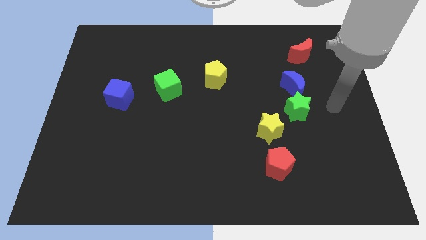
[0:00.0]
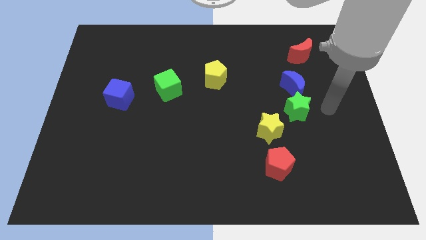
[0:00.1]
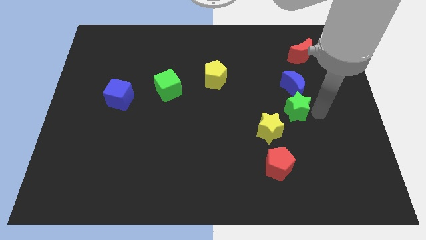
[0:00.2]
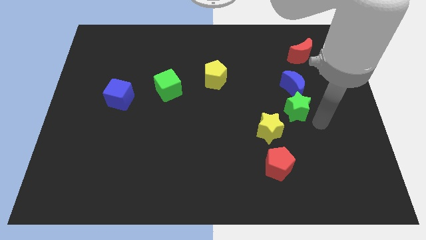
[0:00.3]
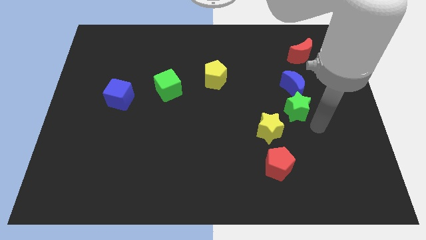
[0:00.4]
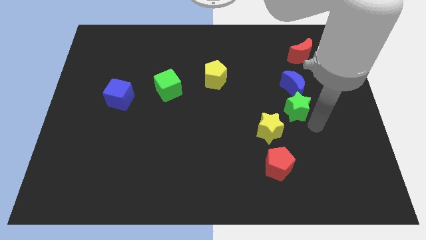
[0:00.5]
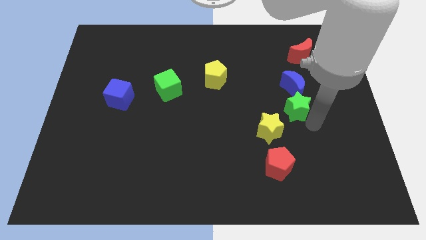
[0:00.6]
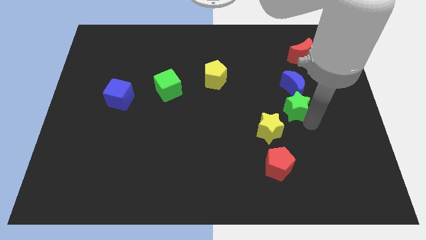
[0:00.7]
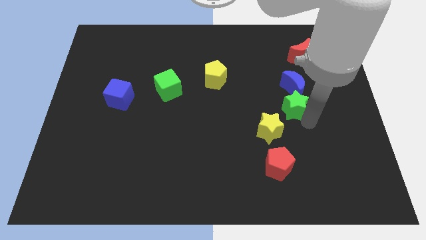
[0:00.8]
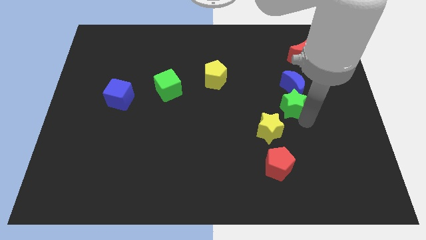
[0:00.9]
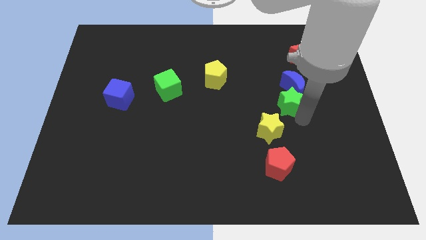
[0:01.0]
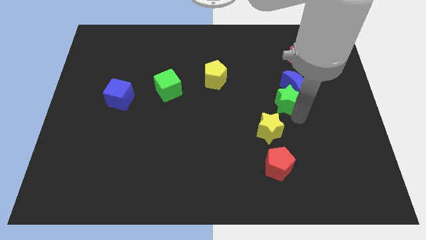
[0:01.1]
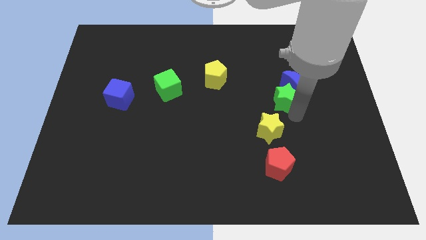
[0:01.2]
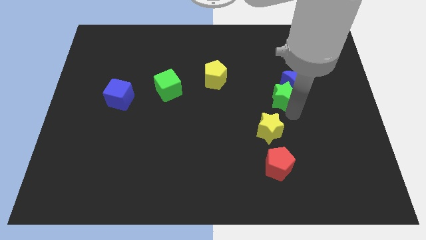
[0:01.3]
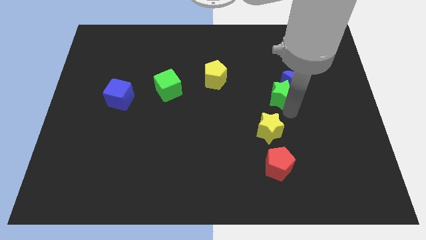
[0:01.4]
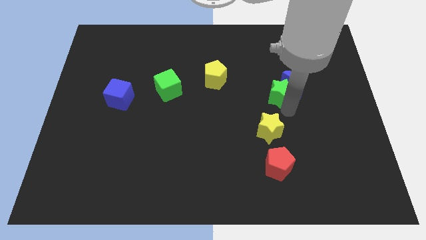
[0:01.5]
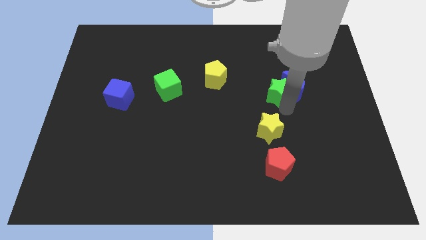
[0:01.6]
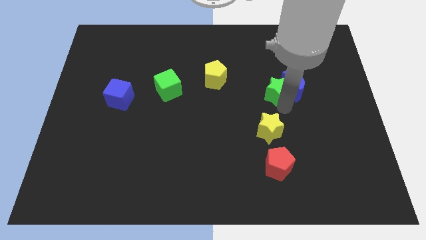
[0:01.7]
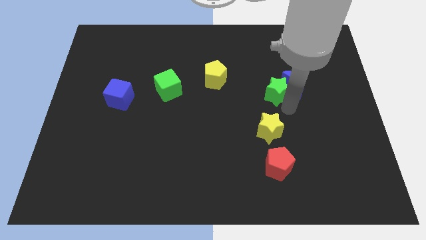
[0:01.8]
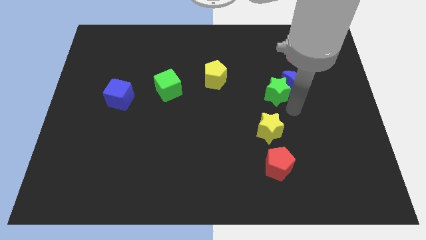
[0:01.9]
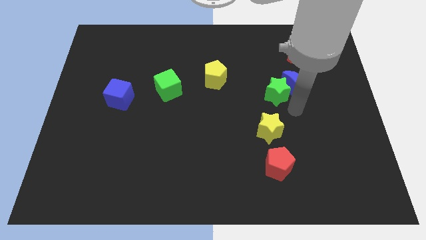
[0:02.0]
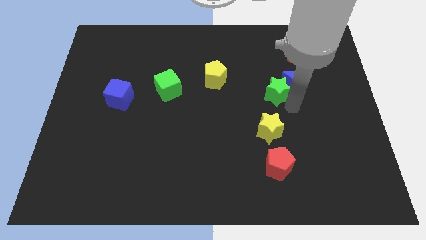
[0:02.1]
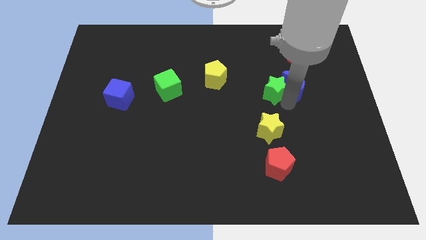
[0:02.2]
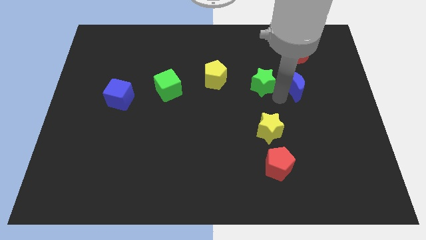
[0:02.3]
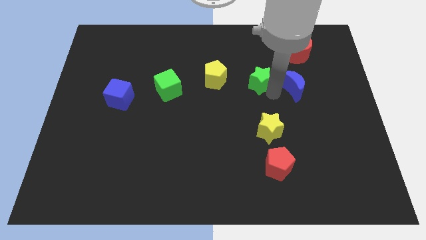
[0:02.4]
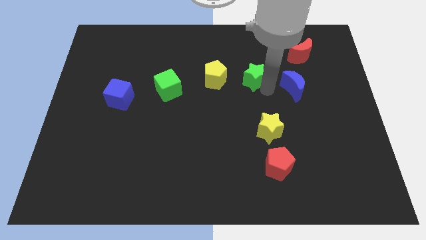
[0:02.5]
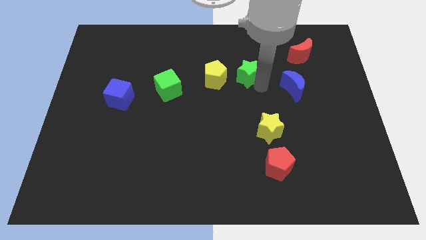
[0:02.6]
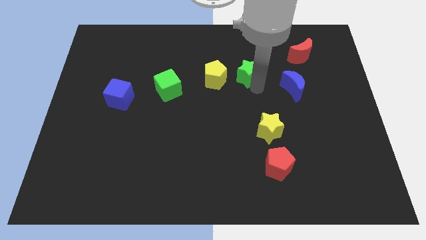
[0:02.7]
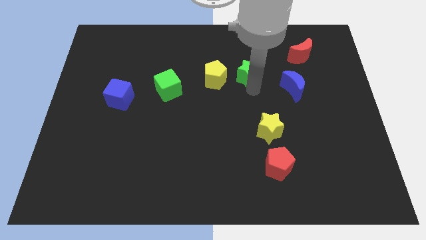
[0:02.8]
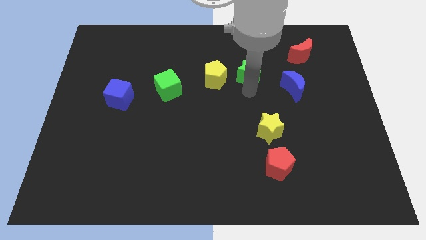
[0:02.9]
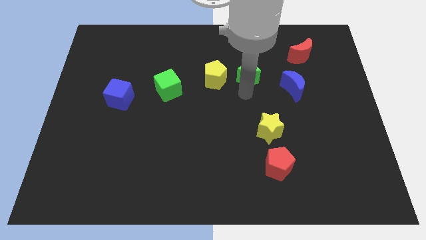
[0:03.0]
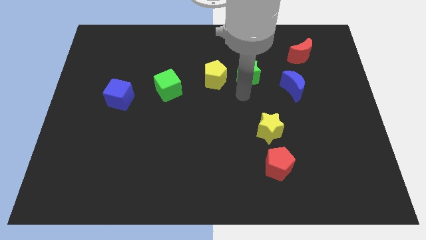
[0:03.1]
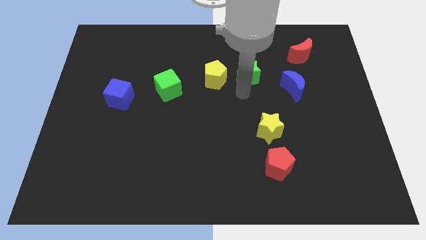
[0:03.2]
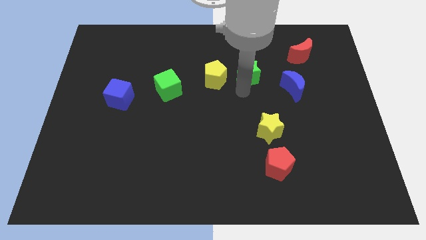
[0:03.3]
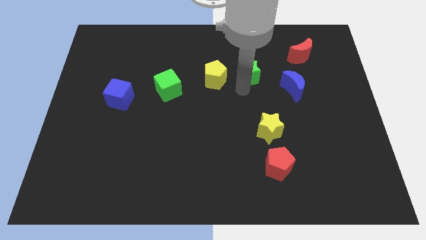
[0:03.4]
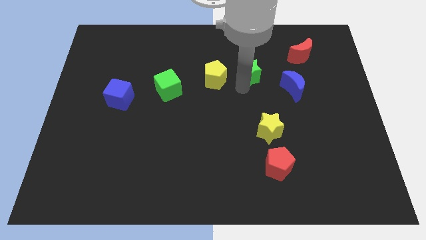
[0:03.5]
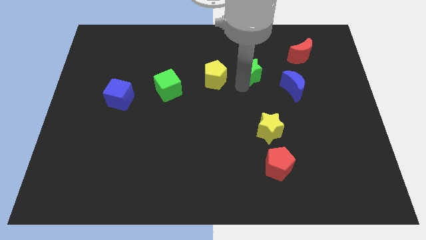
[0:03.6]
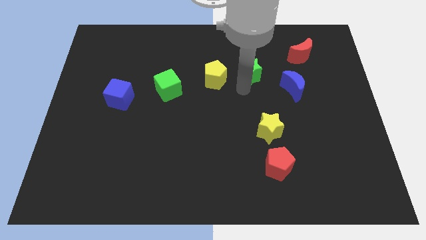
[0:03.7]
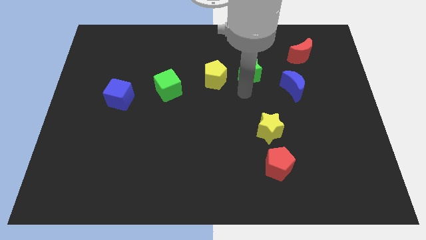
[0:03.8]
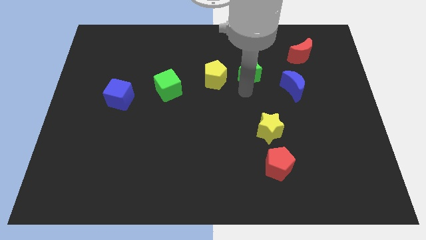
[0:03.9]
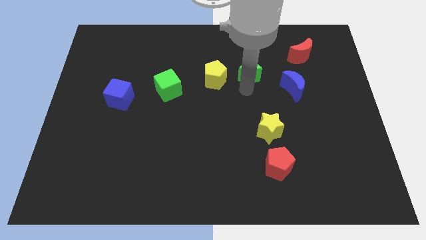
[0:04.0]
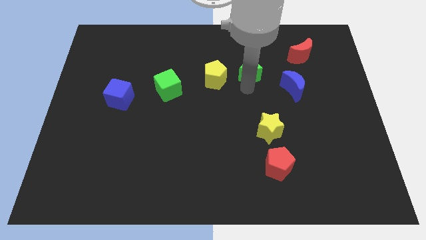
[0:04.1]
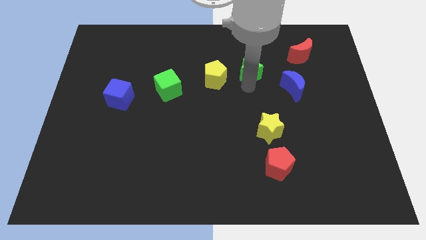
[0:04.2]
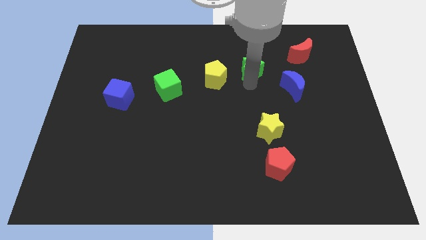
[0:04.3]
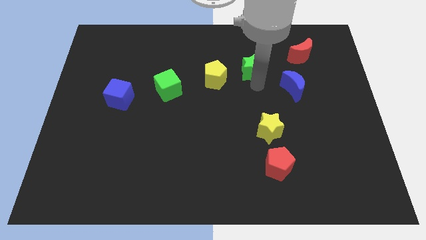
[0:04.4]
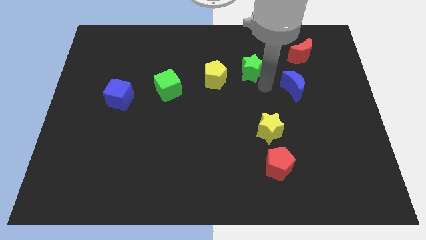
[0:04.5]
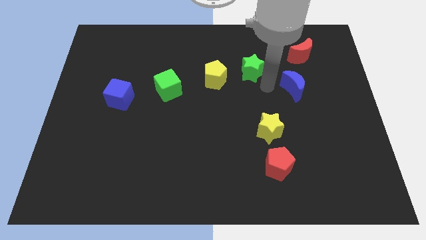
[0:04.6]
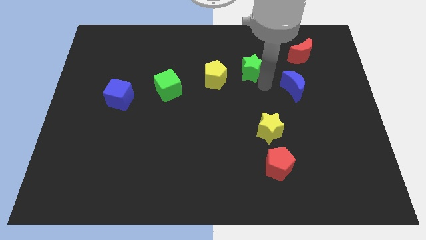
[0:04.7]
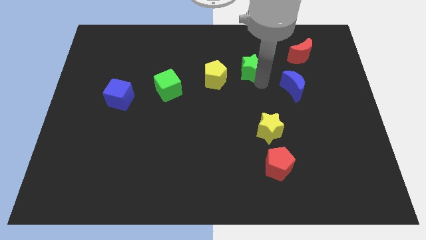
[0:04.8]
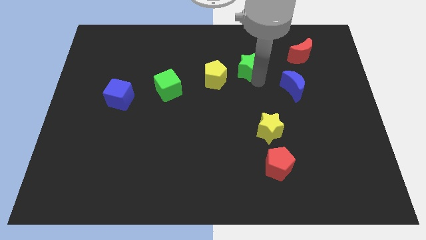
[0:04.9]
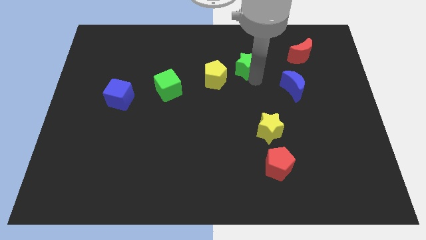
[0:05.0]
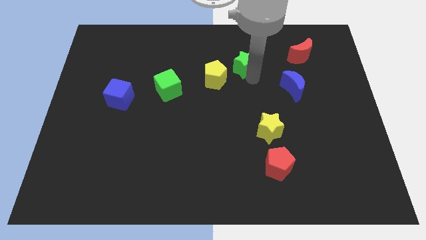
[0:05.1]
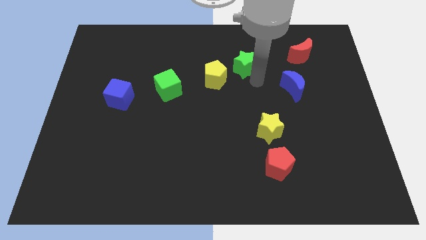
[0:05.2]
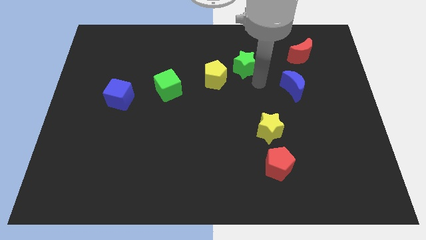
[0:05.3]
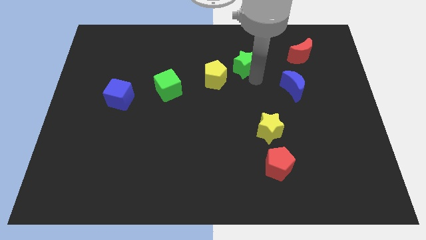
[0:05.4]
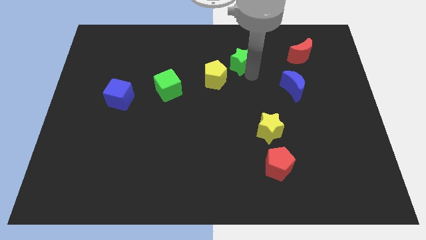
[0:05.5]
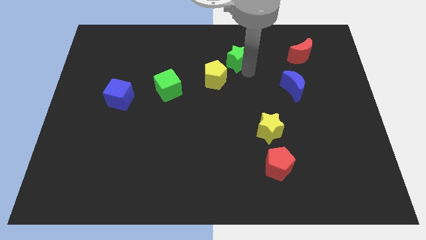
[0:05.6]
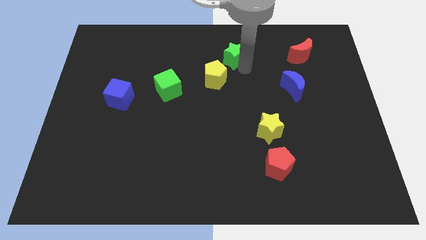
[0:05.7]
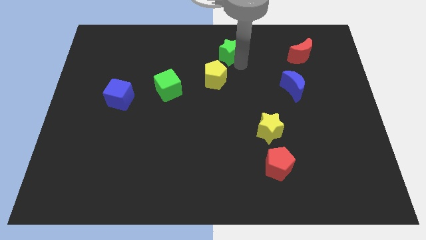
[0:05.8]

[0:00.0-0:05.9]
push the green star to the towards your base
